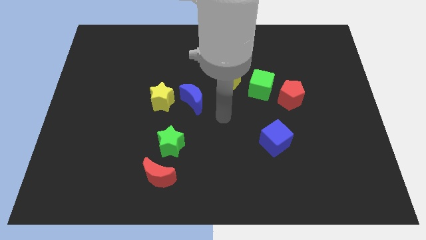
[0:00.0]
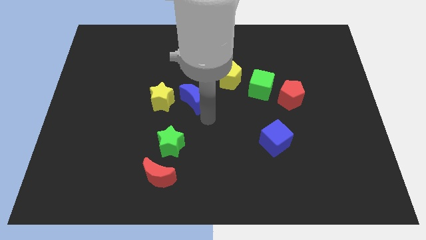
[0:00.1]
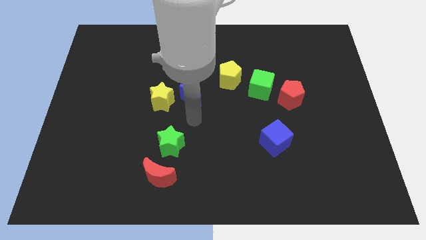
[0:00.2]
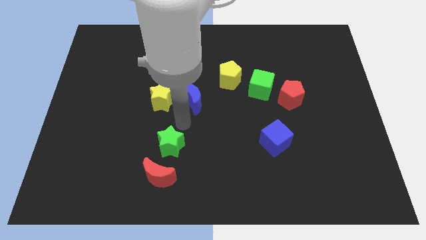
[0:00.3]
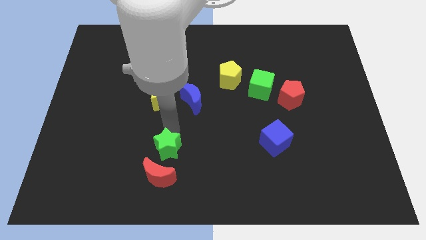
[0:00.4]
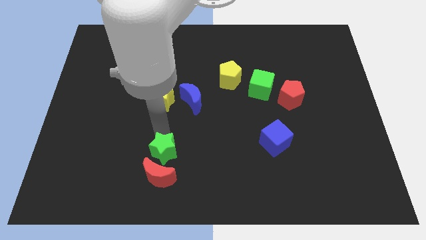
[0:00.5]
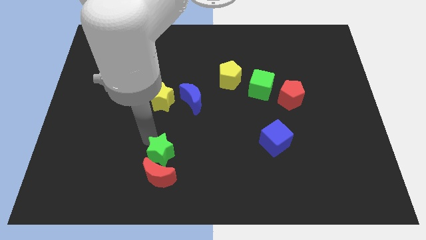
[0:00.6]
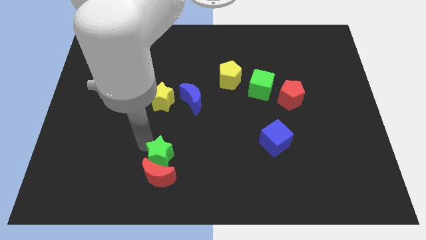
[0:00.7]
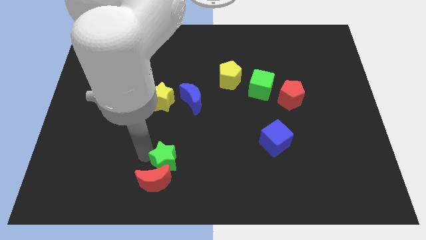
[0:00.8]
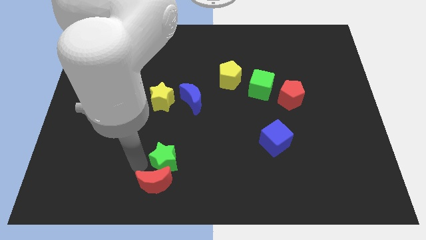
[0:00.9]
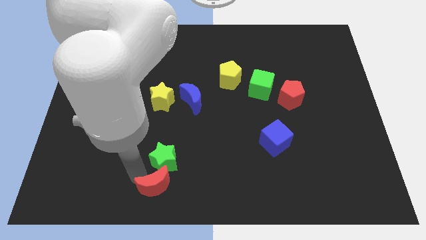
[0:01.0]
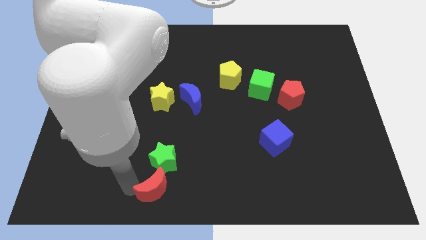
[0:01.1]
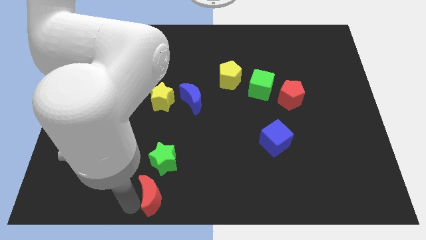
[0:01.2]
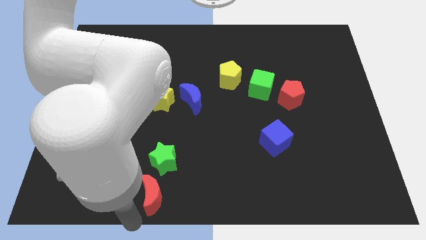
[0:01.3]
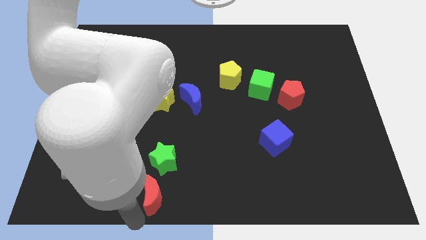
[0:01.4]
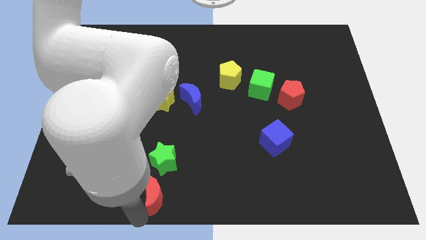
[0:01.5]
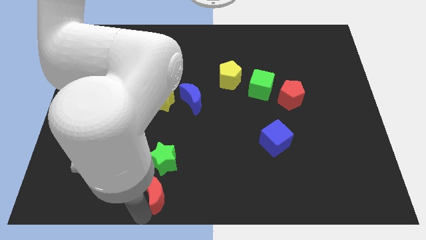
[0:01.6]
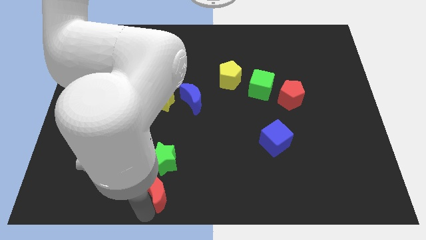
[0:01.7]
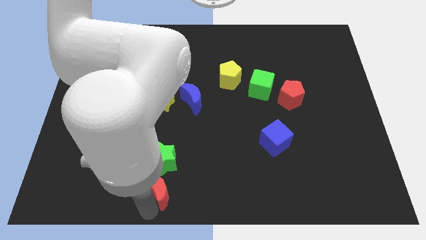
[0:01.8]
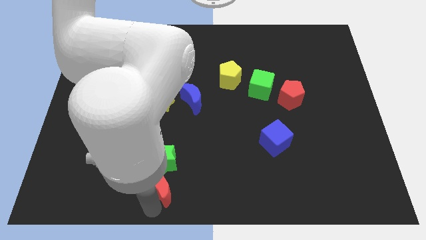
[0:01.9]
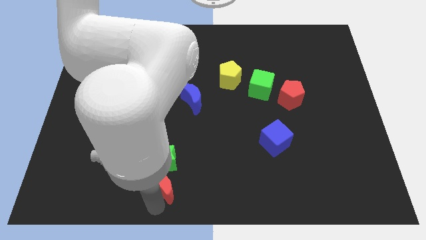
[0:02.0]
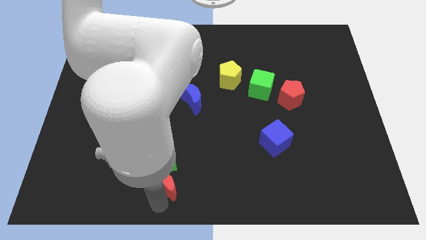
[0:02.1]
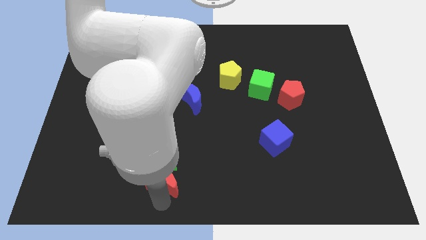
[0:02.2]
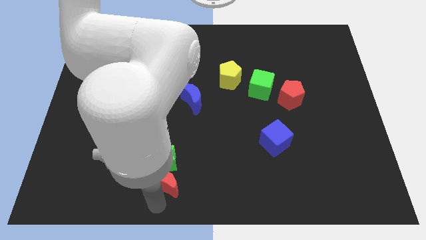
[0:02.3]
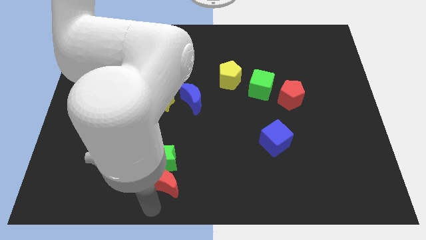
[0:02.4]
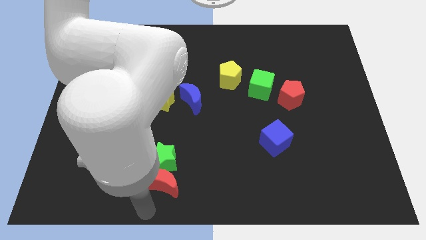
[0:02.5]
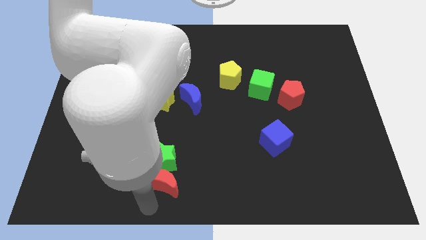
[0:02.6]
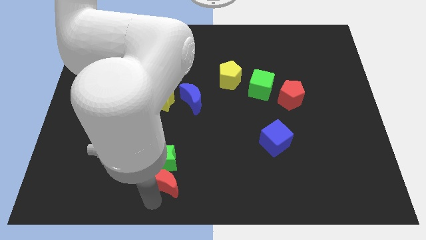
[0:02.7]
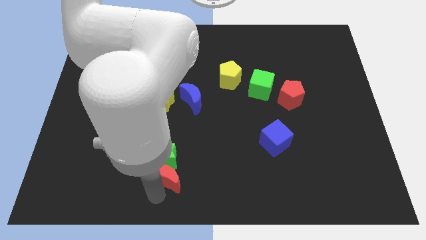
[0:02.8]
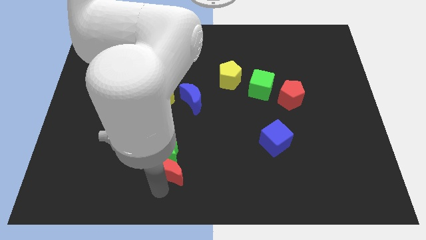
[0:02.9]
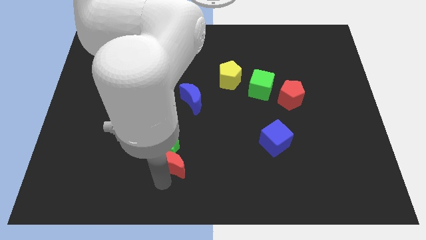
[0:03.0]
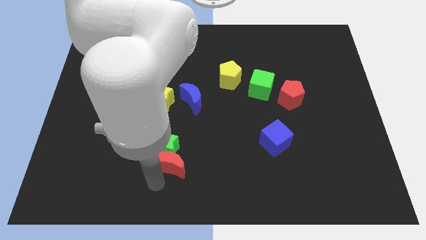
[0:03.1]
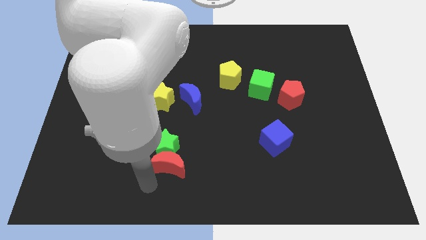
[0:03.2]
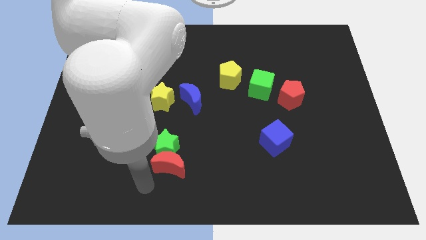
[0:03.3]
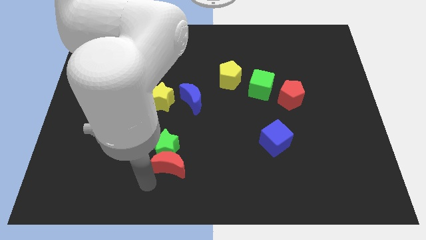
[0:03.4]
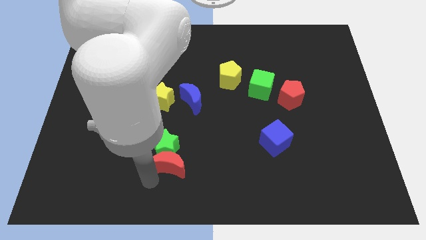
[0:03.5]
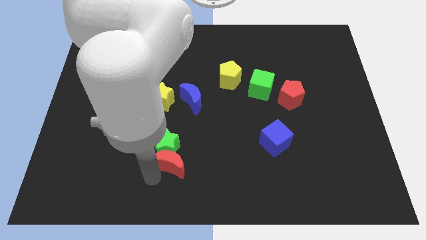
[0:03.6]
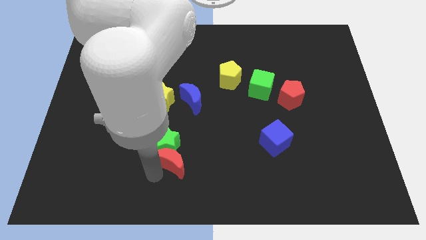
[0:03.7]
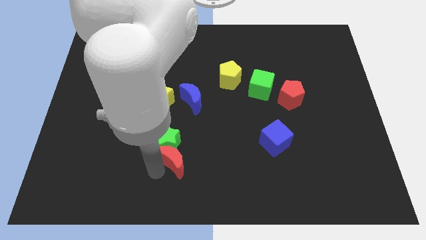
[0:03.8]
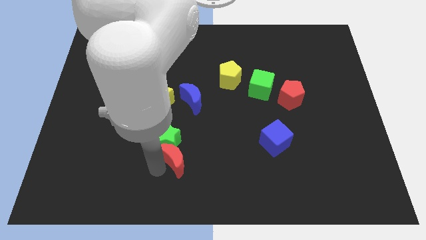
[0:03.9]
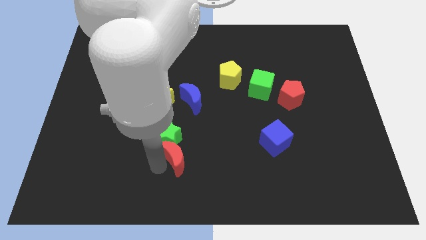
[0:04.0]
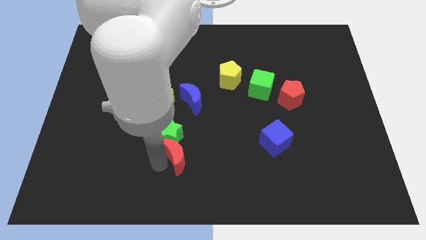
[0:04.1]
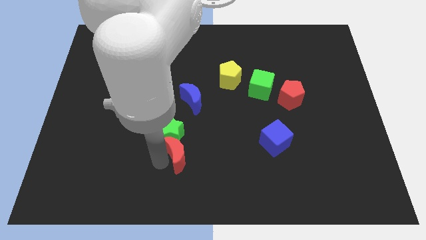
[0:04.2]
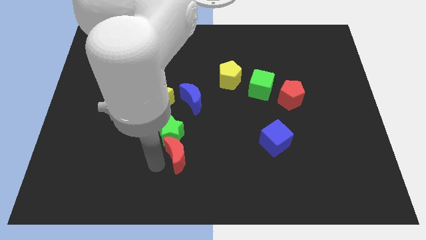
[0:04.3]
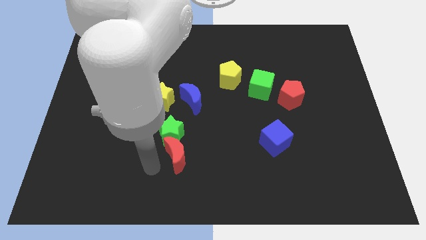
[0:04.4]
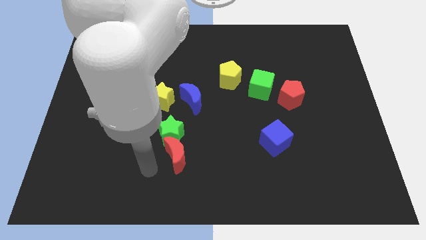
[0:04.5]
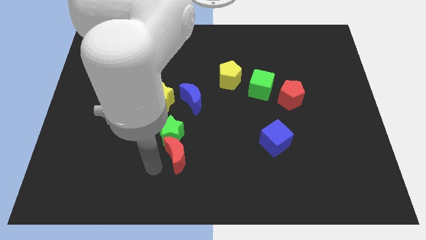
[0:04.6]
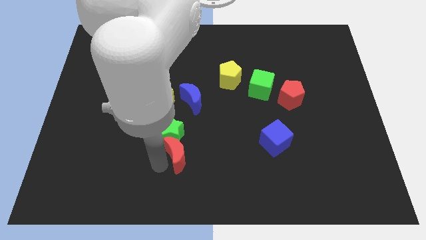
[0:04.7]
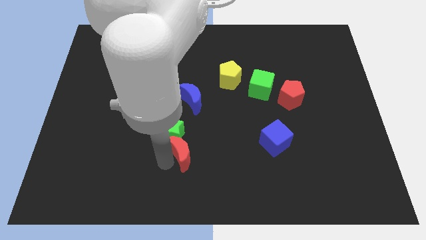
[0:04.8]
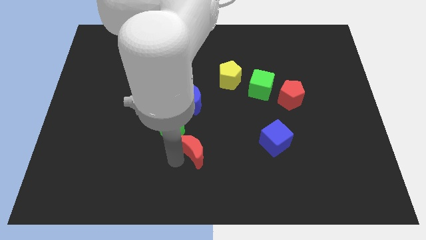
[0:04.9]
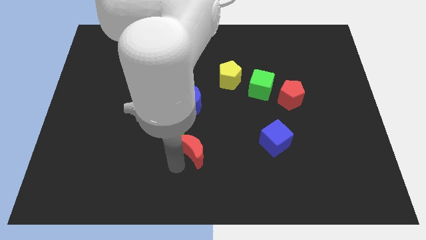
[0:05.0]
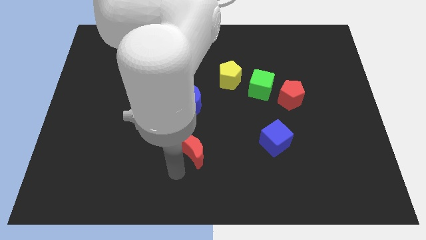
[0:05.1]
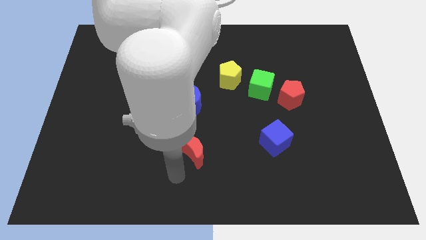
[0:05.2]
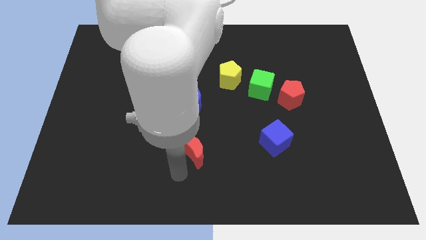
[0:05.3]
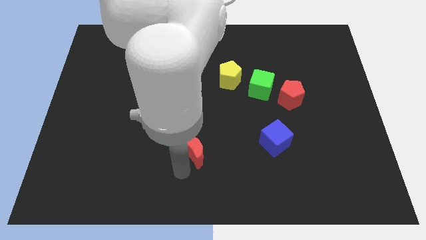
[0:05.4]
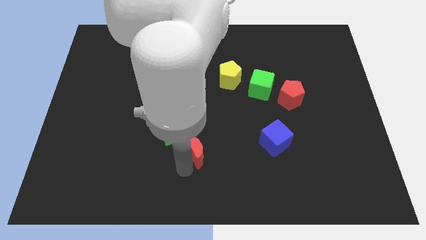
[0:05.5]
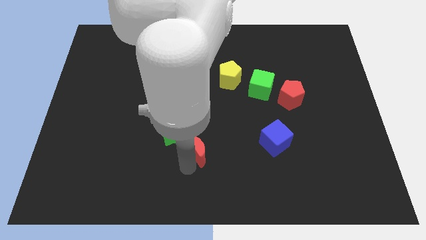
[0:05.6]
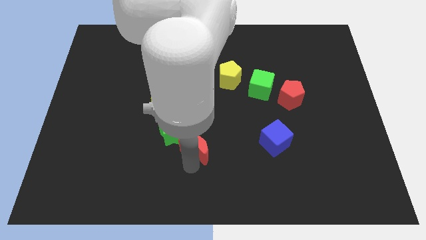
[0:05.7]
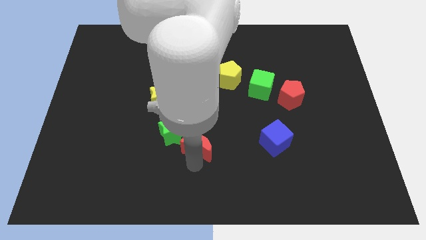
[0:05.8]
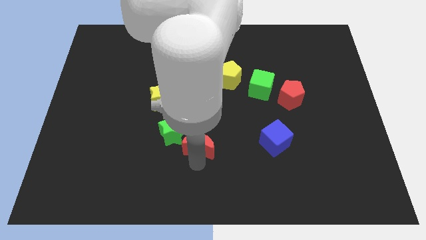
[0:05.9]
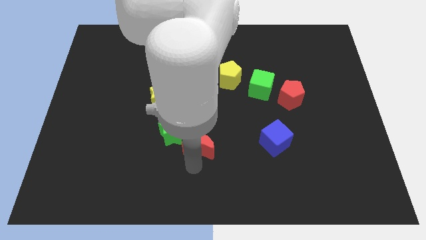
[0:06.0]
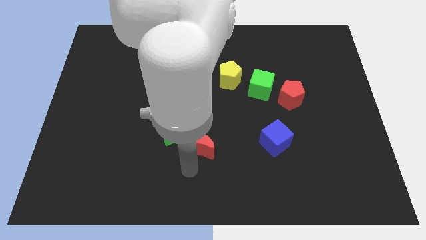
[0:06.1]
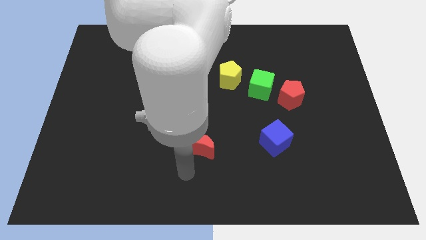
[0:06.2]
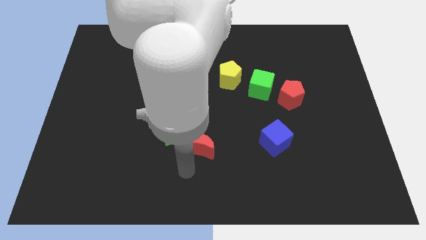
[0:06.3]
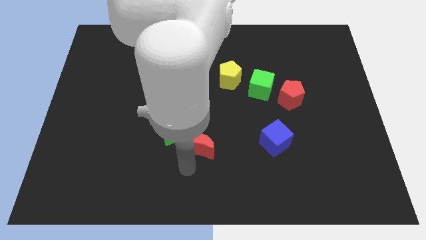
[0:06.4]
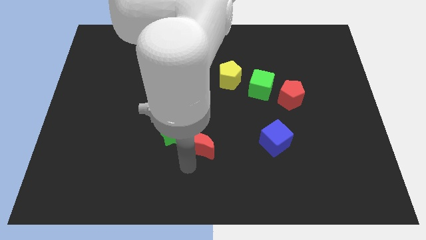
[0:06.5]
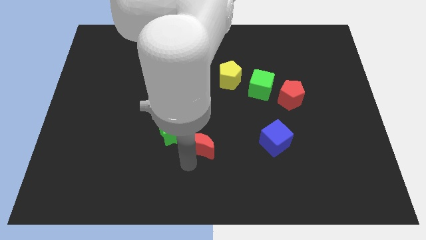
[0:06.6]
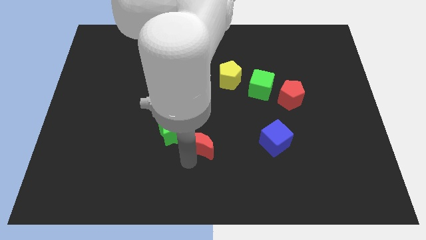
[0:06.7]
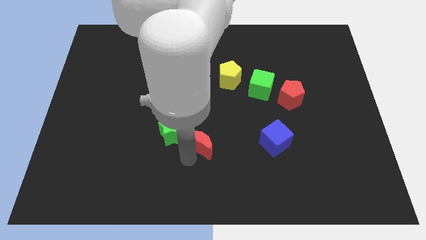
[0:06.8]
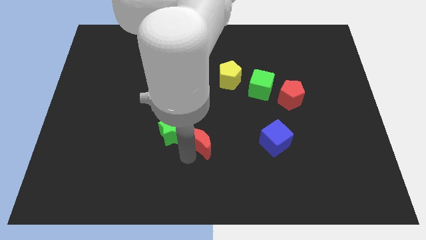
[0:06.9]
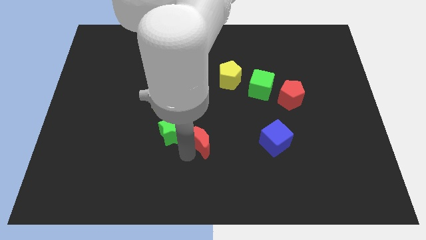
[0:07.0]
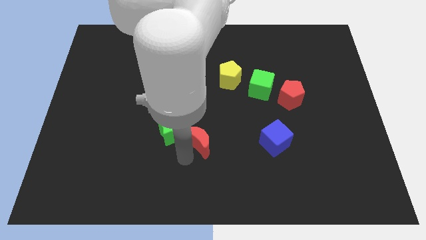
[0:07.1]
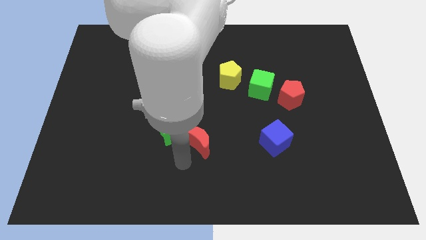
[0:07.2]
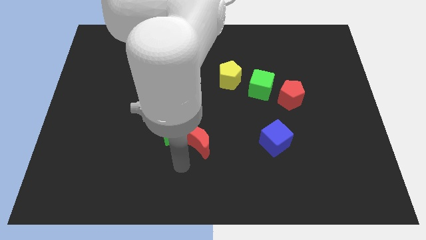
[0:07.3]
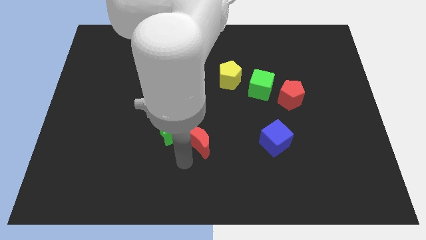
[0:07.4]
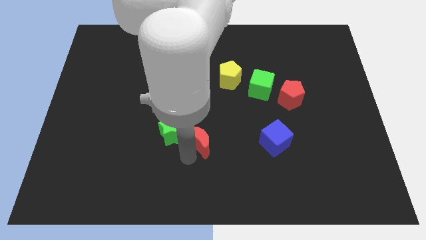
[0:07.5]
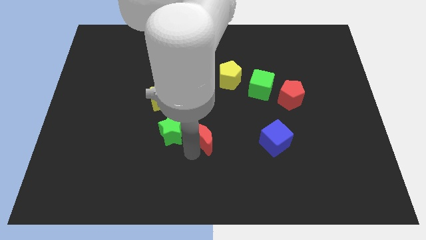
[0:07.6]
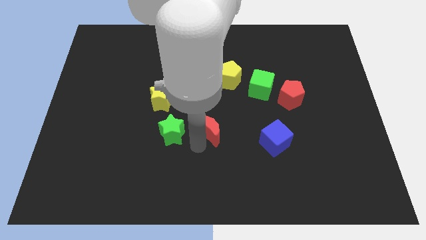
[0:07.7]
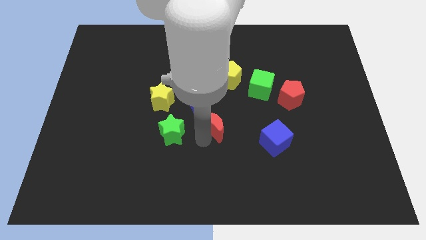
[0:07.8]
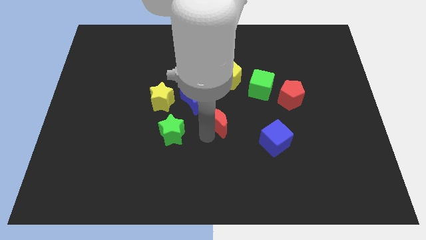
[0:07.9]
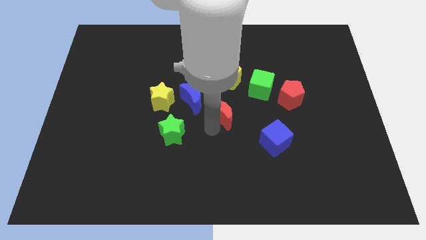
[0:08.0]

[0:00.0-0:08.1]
push the red moon just right of the blue moon
